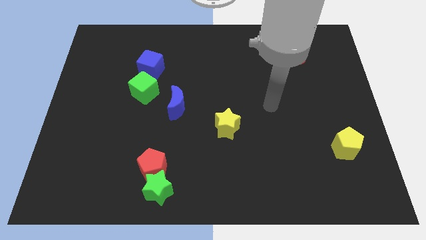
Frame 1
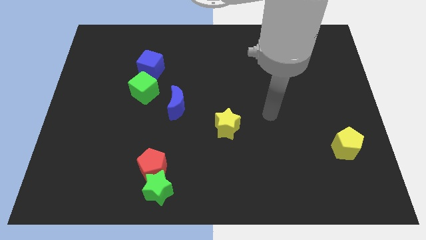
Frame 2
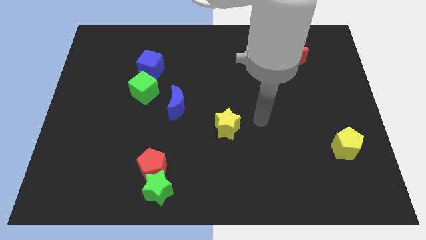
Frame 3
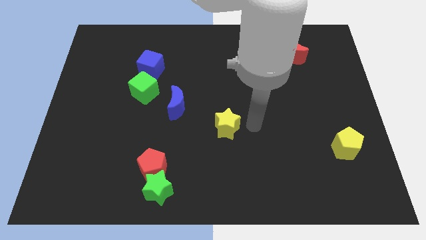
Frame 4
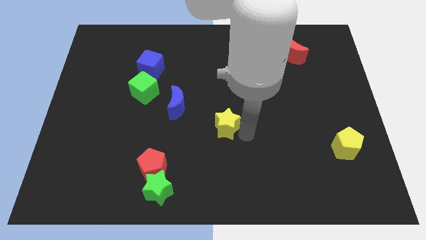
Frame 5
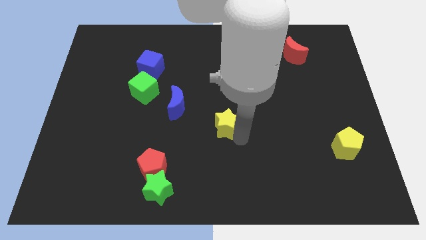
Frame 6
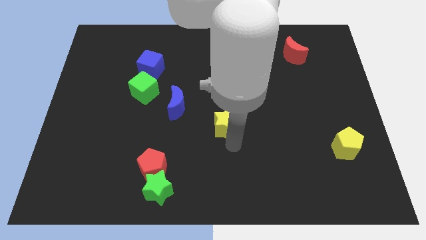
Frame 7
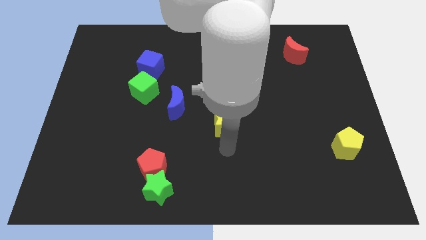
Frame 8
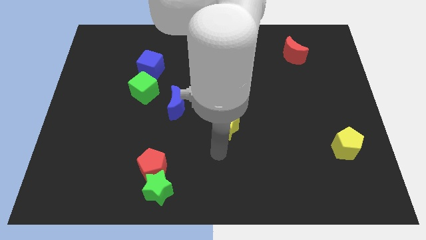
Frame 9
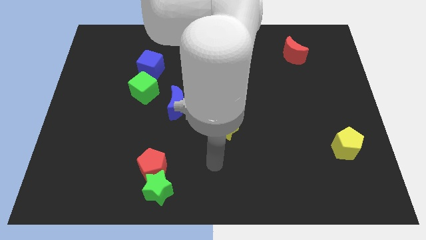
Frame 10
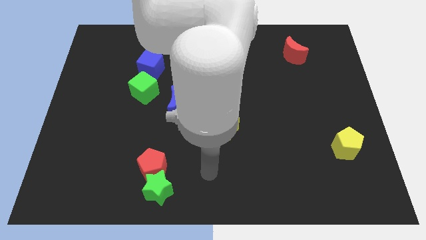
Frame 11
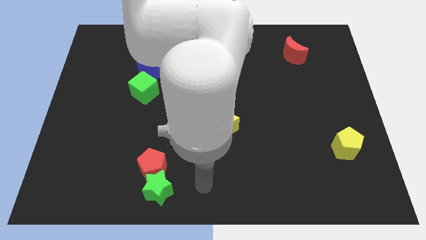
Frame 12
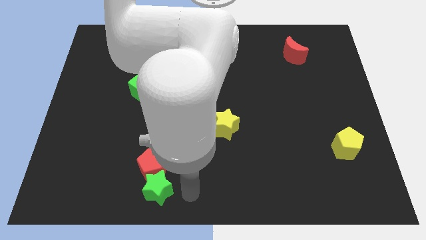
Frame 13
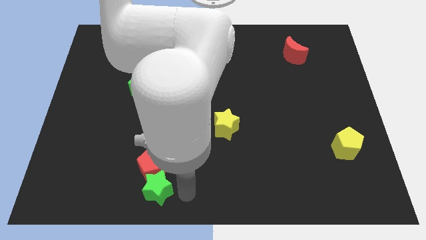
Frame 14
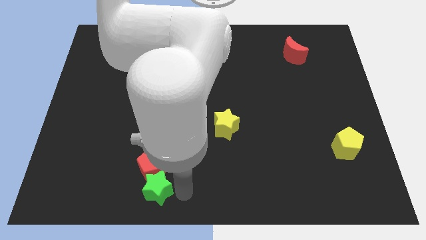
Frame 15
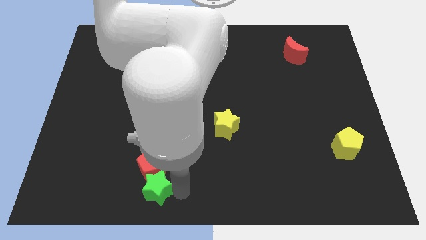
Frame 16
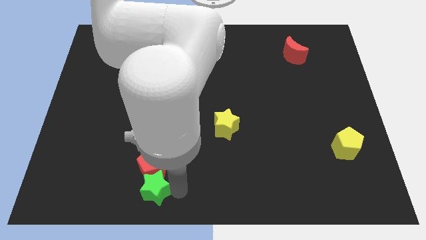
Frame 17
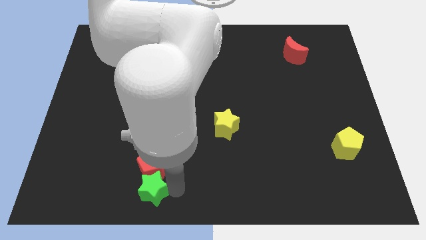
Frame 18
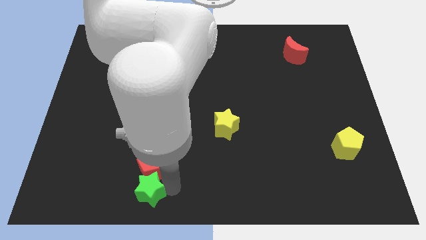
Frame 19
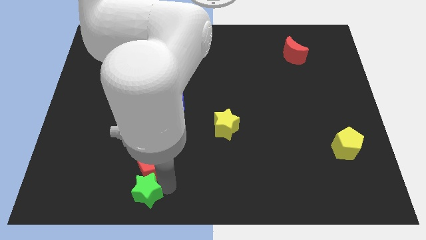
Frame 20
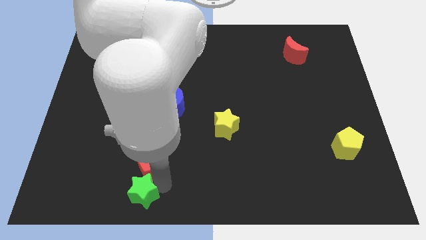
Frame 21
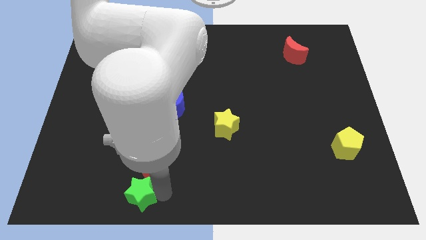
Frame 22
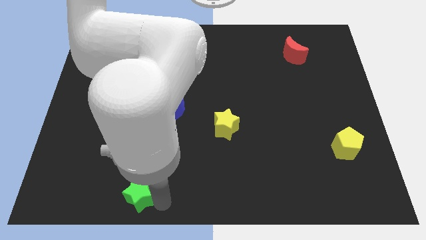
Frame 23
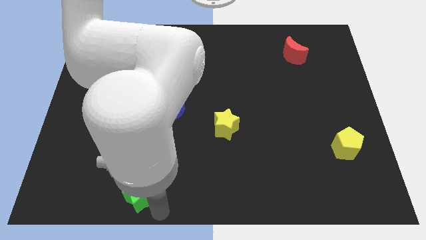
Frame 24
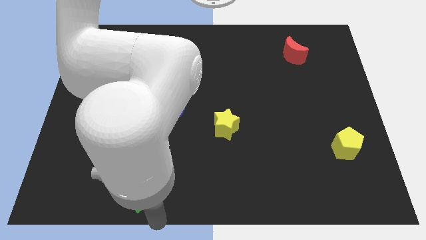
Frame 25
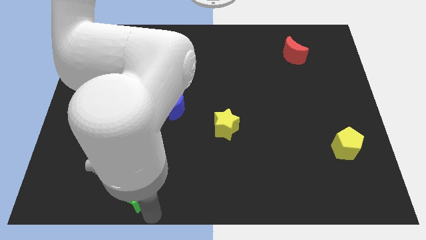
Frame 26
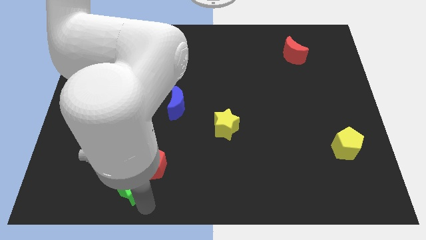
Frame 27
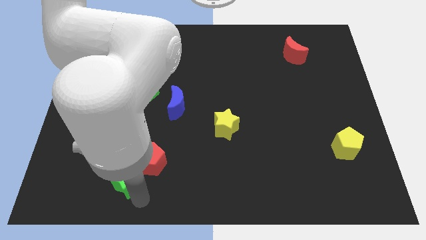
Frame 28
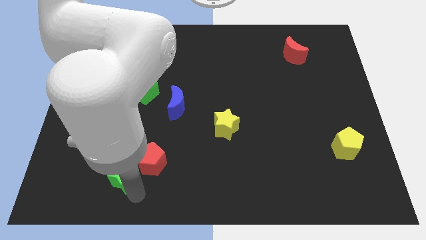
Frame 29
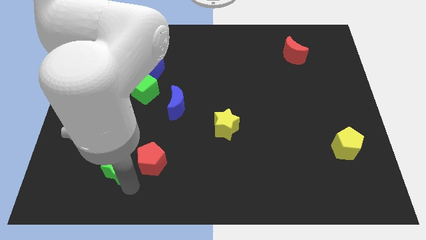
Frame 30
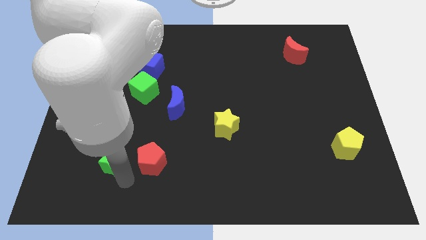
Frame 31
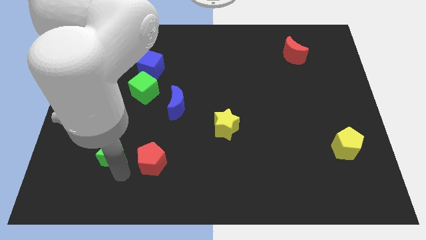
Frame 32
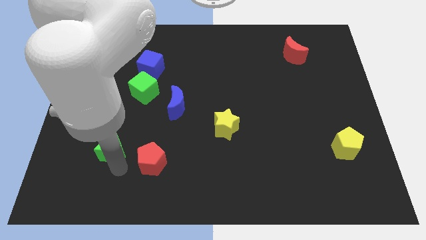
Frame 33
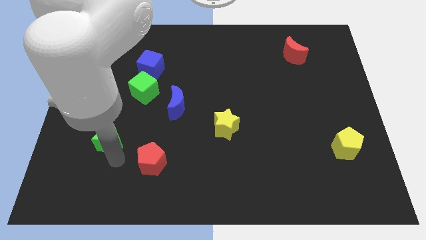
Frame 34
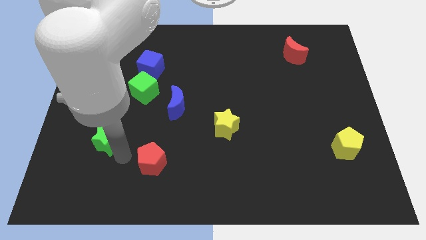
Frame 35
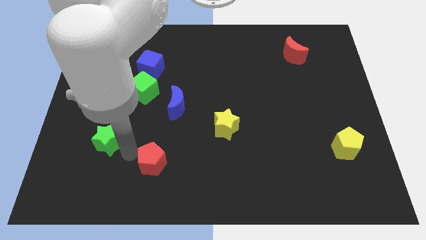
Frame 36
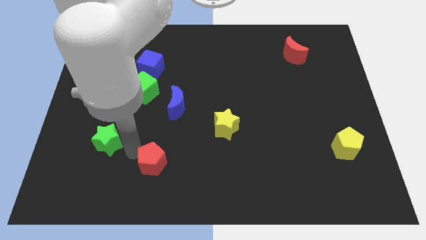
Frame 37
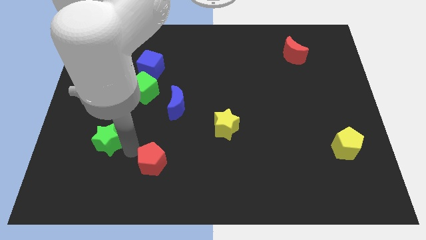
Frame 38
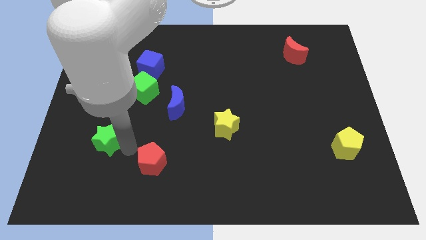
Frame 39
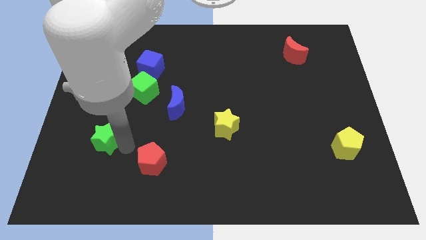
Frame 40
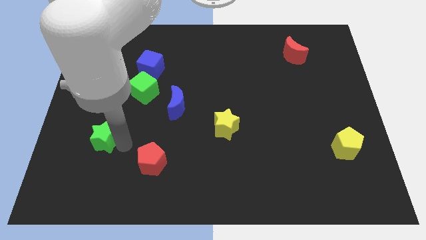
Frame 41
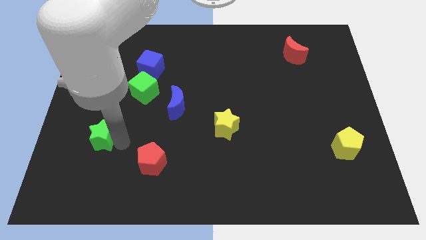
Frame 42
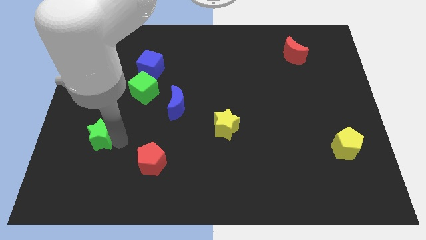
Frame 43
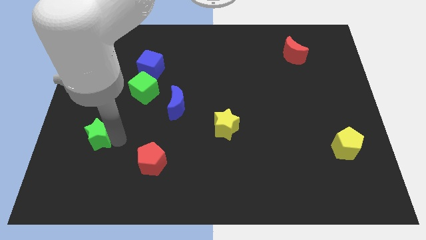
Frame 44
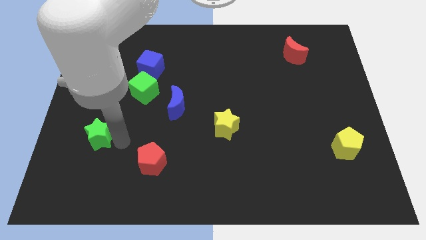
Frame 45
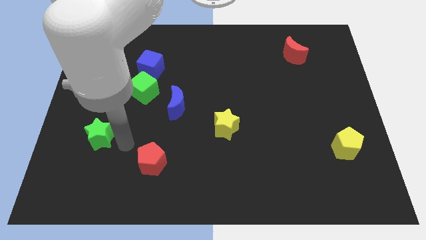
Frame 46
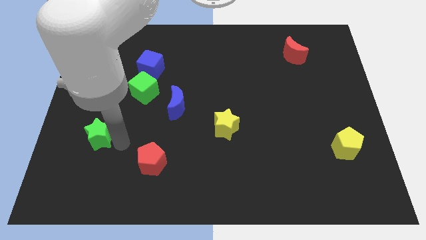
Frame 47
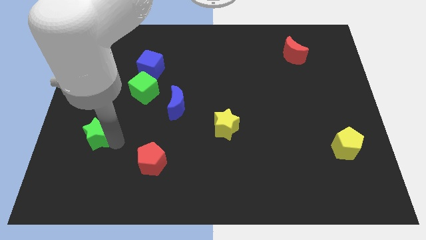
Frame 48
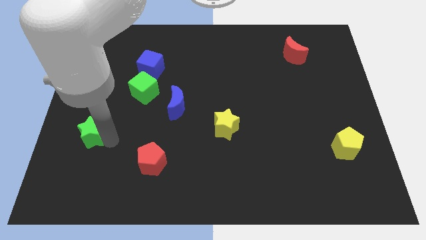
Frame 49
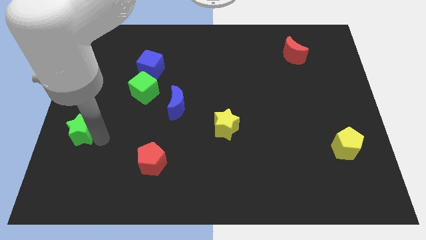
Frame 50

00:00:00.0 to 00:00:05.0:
push the green star to the left side

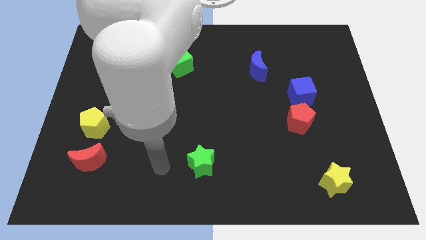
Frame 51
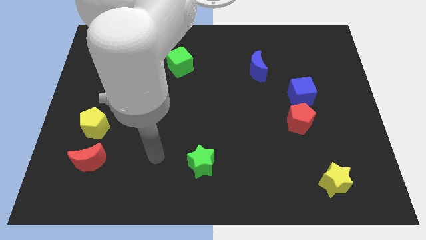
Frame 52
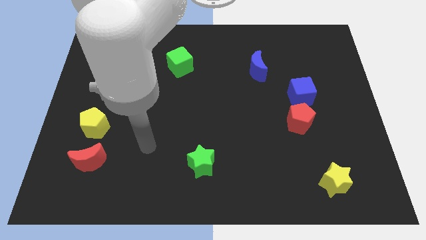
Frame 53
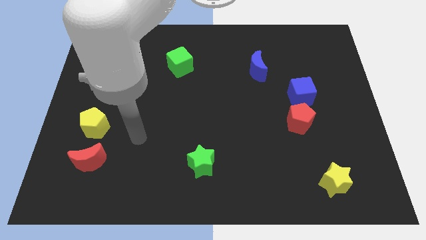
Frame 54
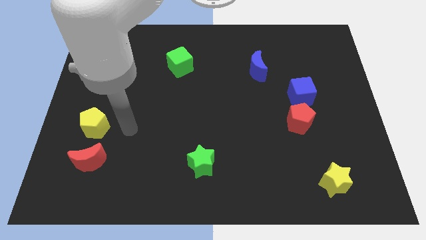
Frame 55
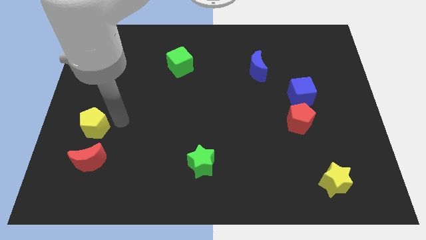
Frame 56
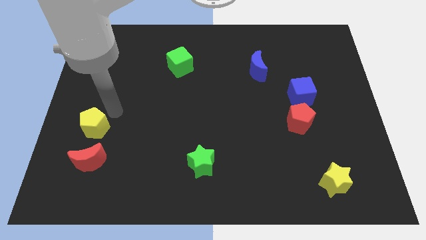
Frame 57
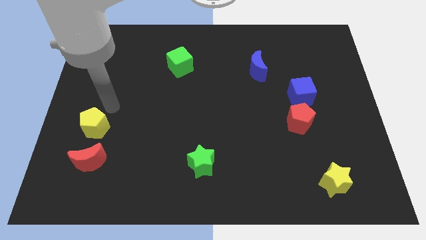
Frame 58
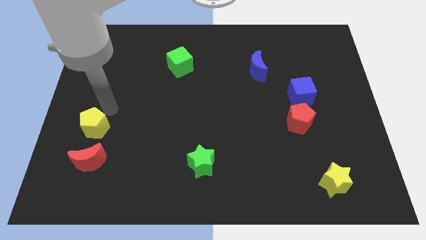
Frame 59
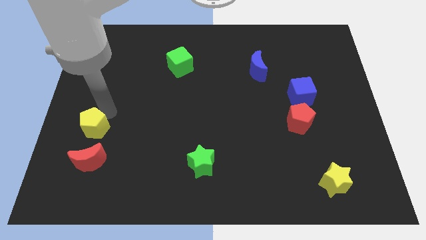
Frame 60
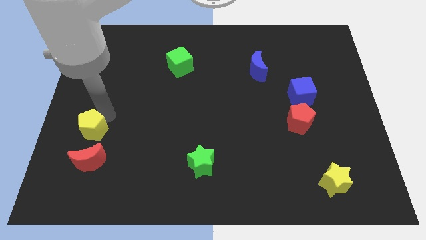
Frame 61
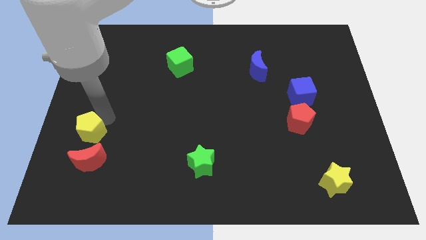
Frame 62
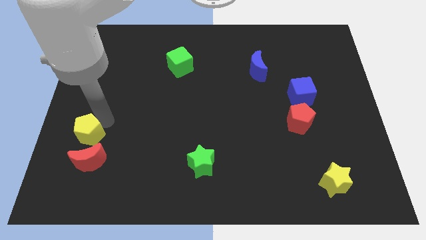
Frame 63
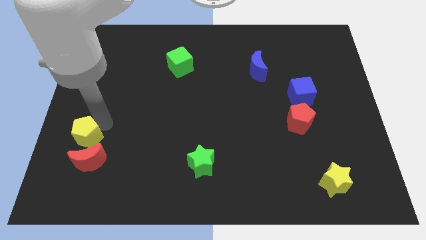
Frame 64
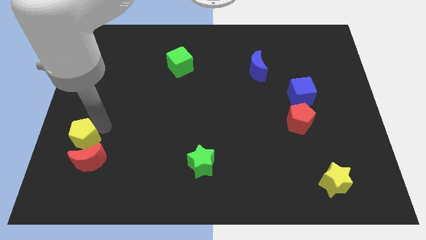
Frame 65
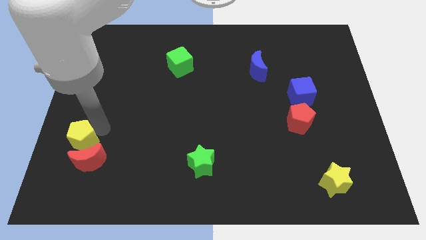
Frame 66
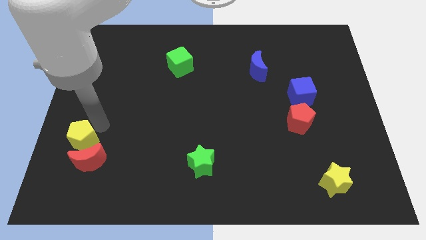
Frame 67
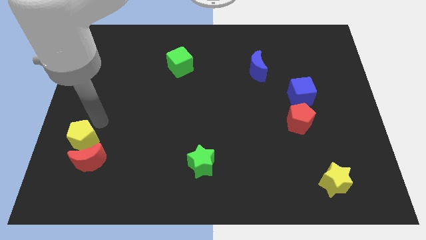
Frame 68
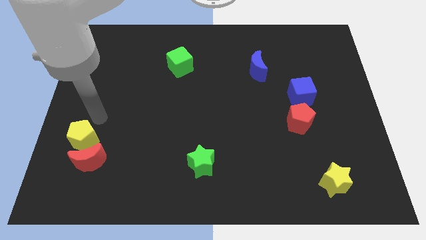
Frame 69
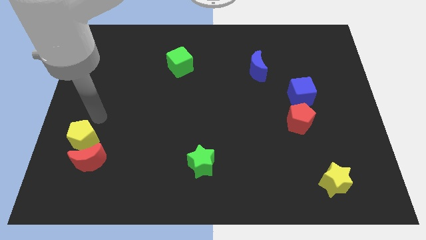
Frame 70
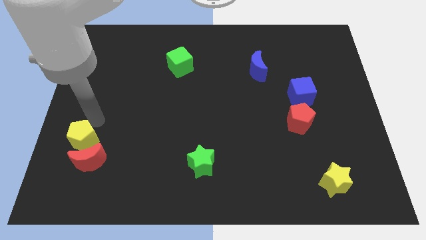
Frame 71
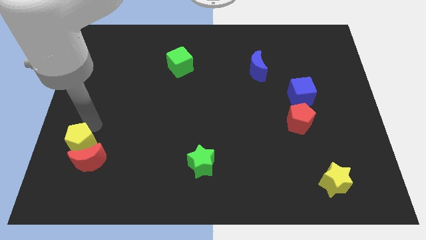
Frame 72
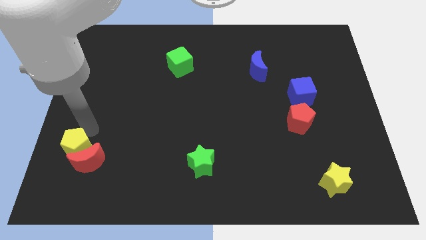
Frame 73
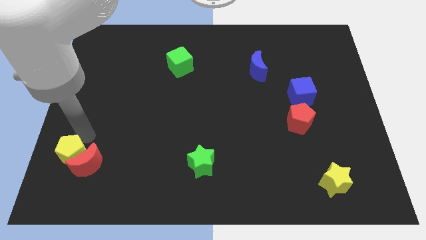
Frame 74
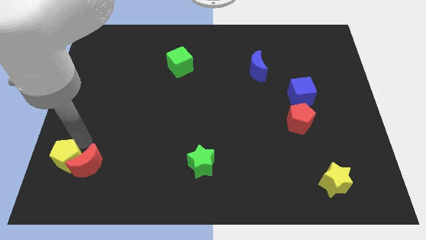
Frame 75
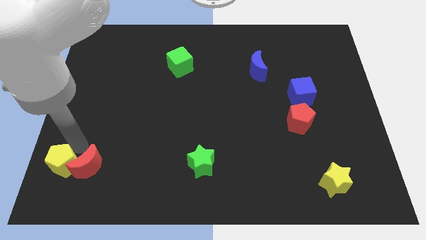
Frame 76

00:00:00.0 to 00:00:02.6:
slide the yellow pentagon to the lower left corner
